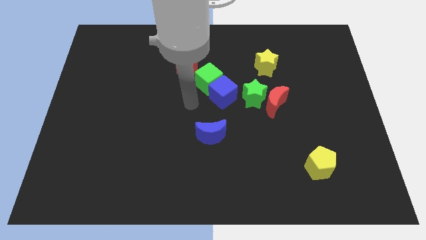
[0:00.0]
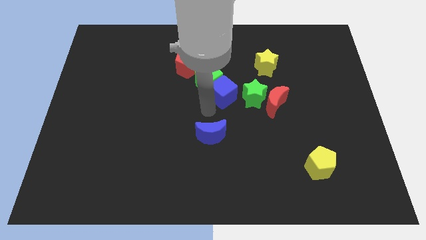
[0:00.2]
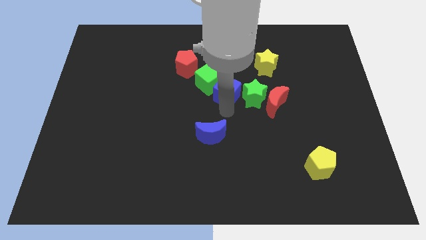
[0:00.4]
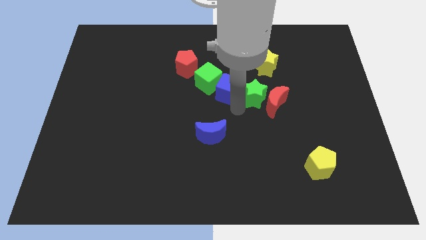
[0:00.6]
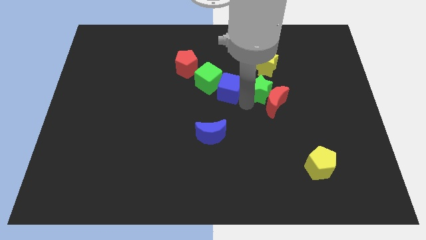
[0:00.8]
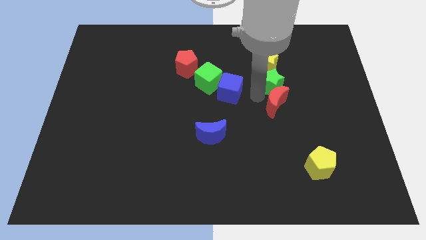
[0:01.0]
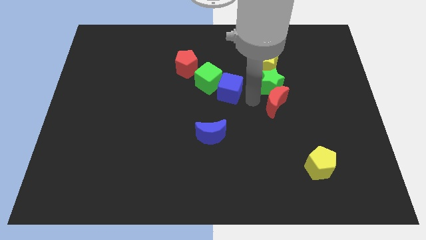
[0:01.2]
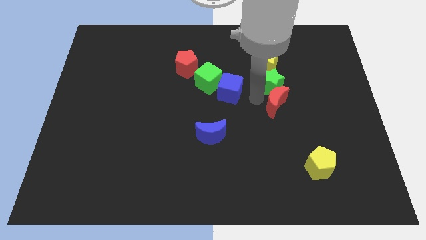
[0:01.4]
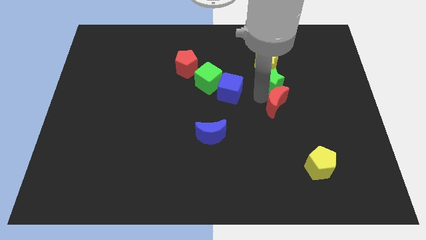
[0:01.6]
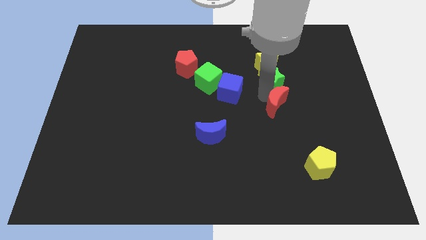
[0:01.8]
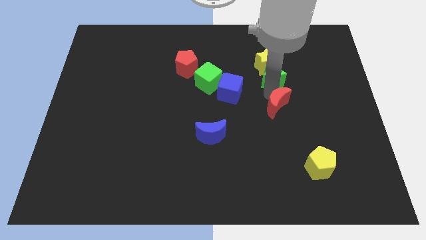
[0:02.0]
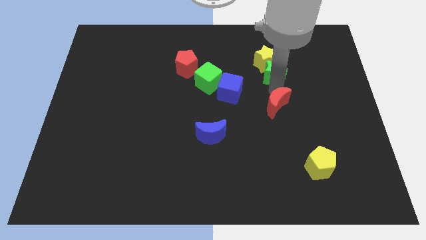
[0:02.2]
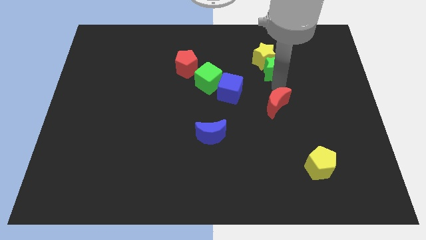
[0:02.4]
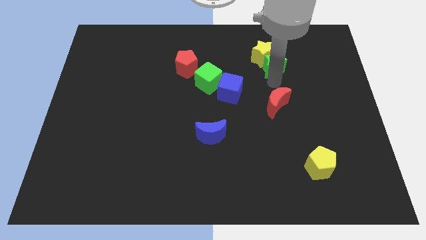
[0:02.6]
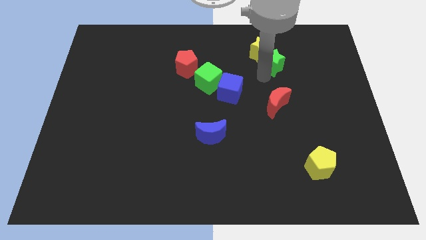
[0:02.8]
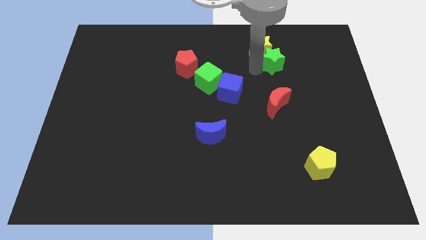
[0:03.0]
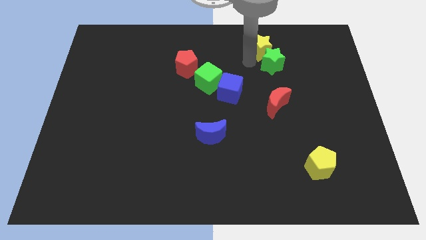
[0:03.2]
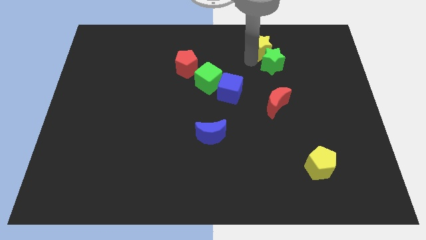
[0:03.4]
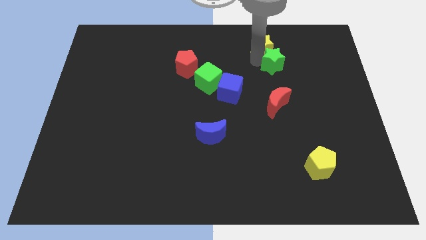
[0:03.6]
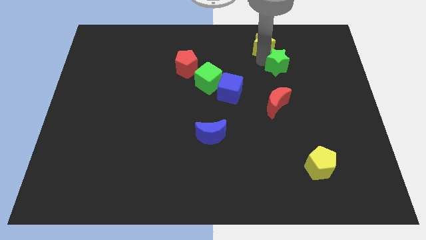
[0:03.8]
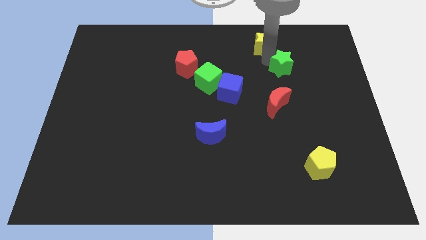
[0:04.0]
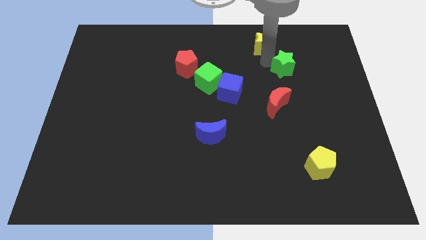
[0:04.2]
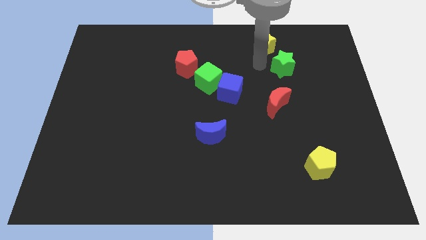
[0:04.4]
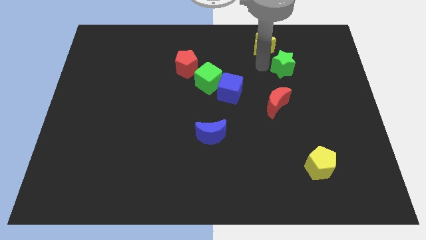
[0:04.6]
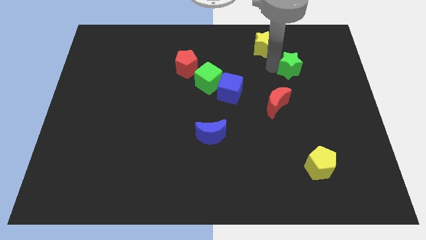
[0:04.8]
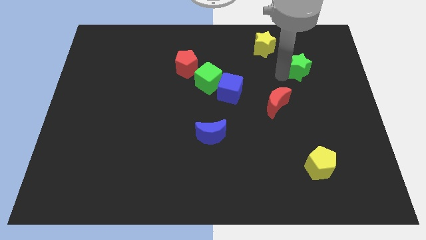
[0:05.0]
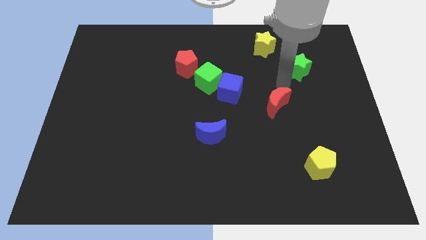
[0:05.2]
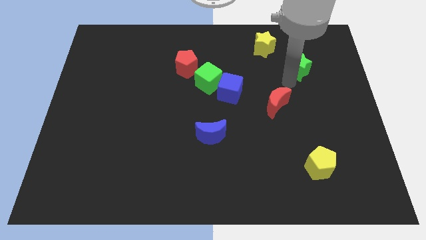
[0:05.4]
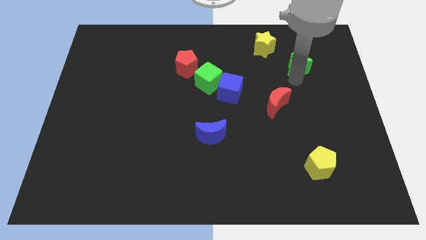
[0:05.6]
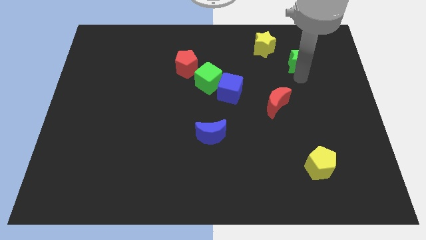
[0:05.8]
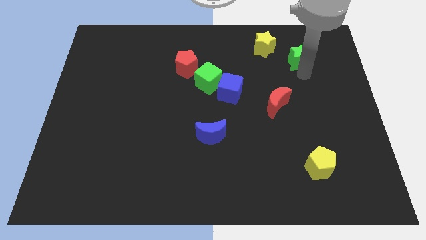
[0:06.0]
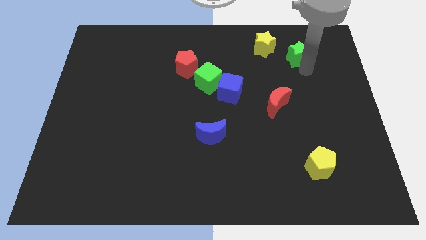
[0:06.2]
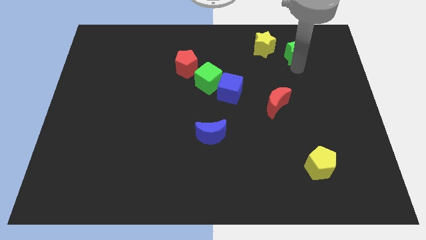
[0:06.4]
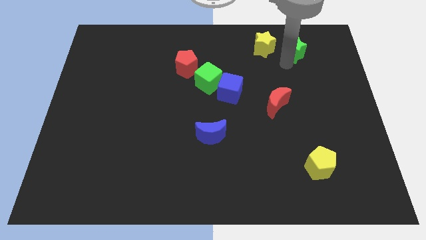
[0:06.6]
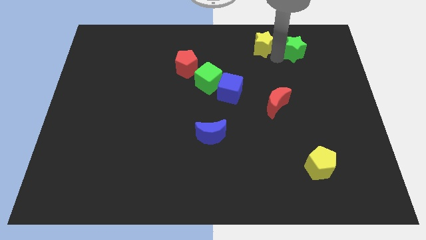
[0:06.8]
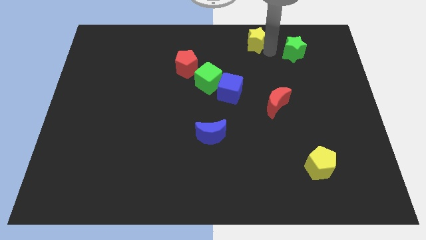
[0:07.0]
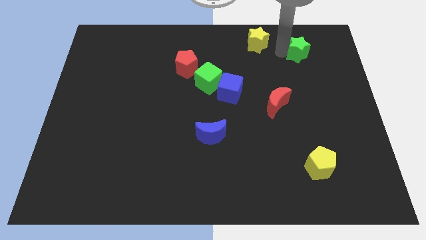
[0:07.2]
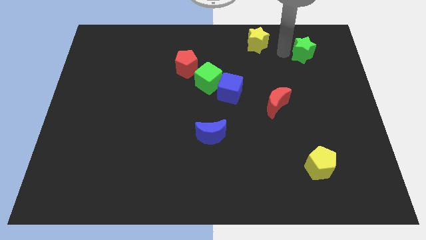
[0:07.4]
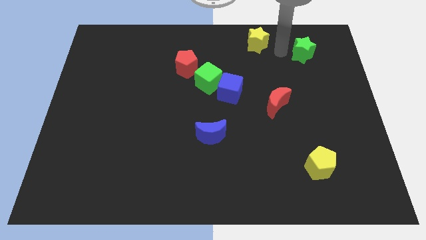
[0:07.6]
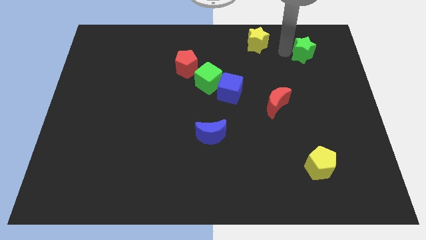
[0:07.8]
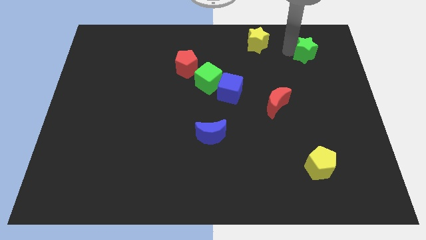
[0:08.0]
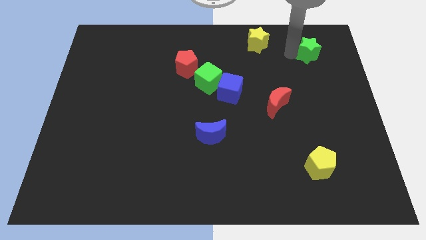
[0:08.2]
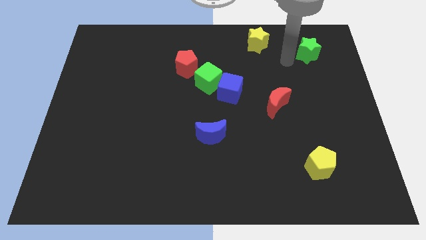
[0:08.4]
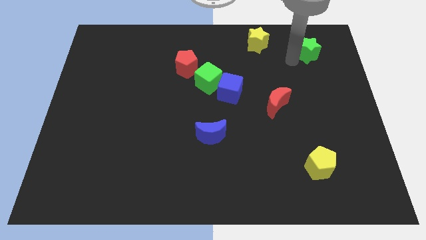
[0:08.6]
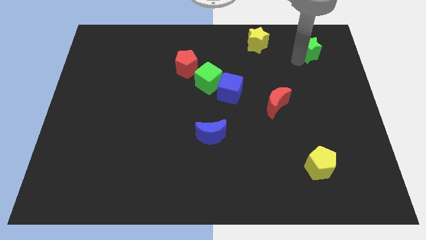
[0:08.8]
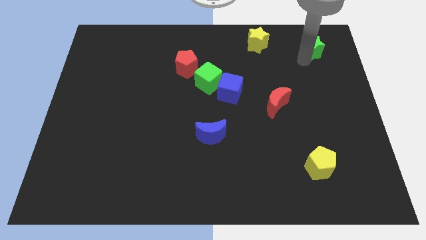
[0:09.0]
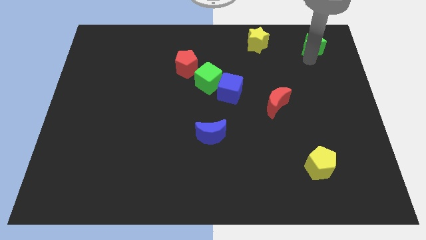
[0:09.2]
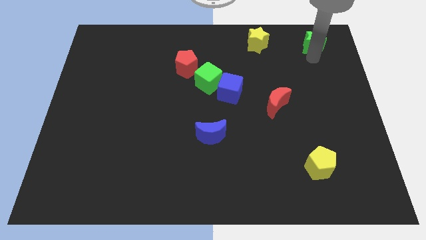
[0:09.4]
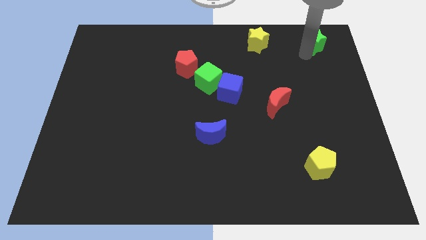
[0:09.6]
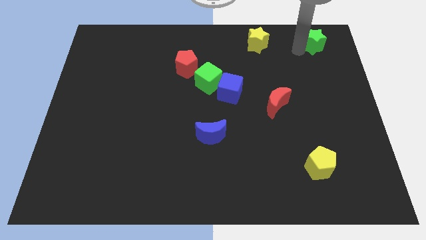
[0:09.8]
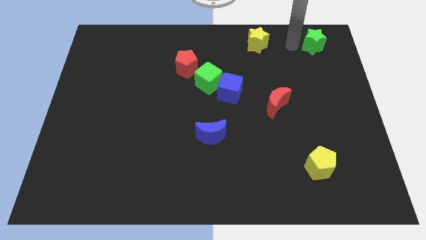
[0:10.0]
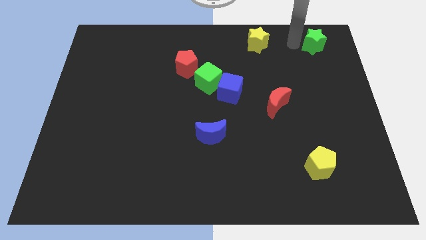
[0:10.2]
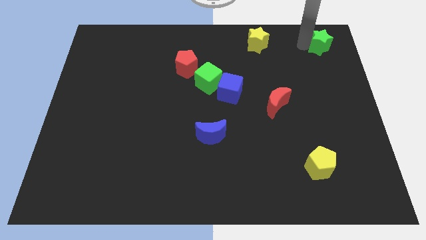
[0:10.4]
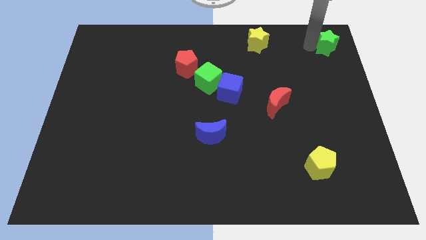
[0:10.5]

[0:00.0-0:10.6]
push the green star to the top right of the board
